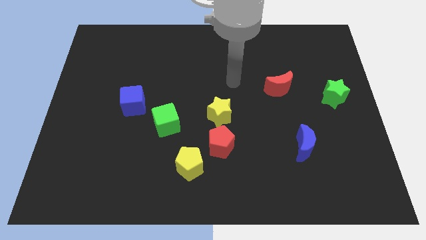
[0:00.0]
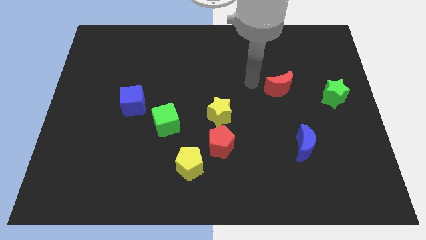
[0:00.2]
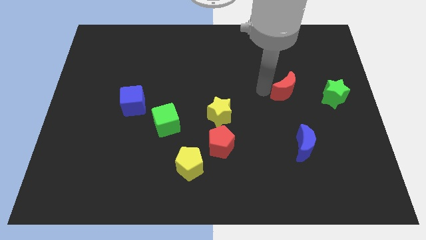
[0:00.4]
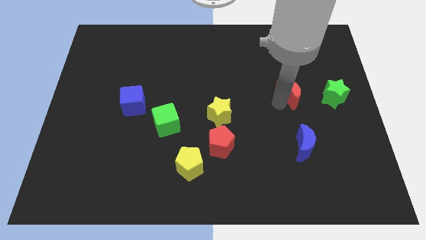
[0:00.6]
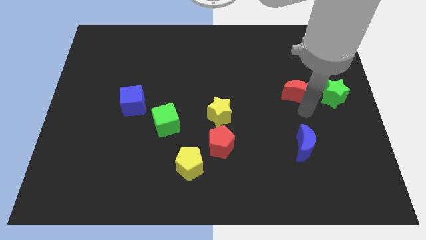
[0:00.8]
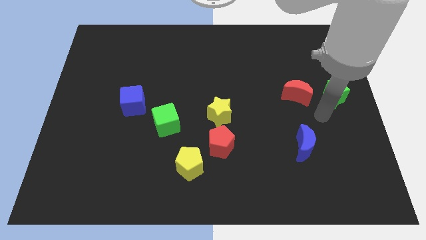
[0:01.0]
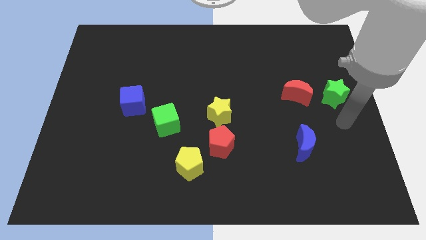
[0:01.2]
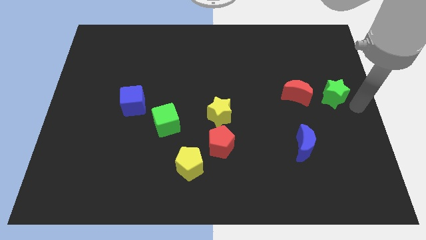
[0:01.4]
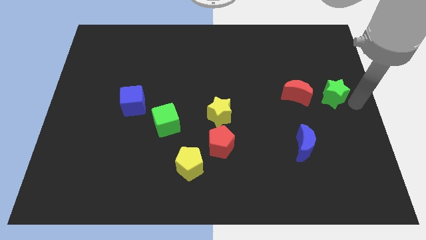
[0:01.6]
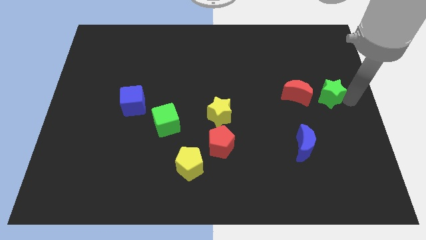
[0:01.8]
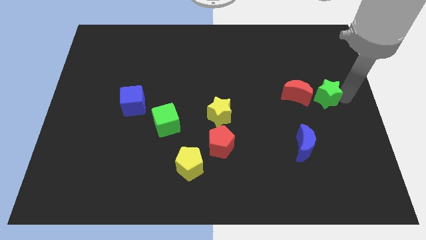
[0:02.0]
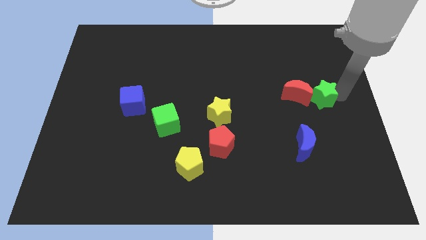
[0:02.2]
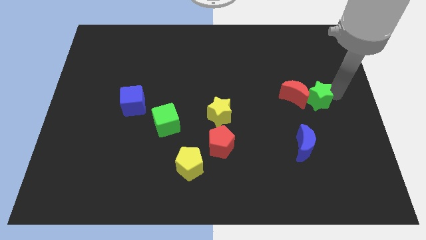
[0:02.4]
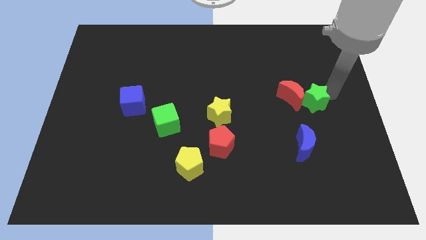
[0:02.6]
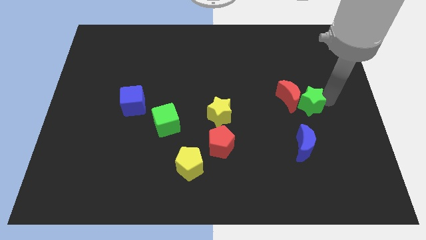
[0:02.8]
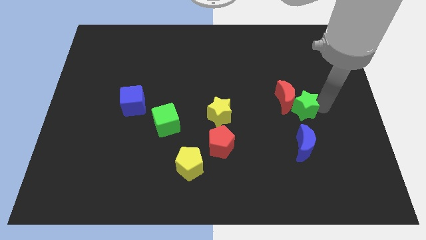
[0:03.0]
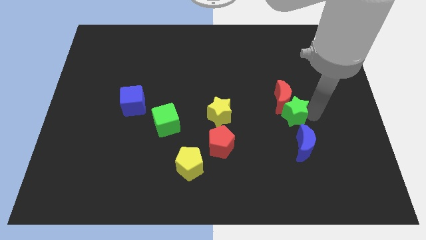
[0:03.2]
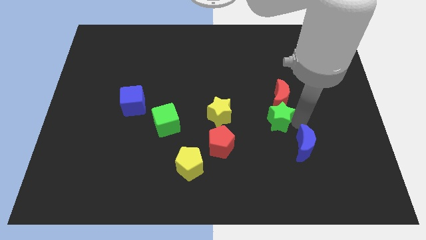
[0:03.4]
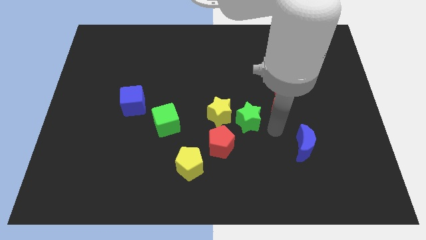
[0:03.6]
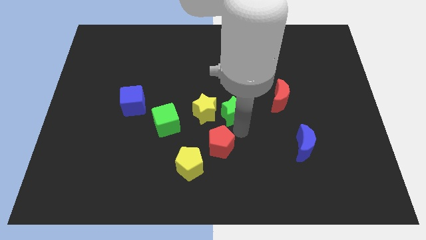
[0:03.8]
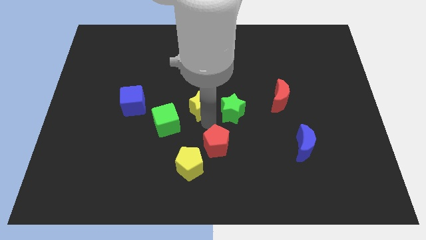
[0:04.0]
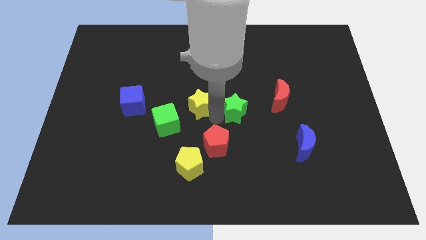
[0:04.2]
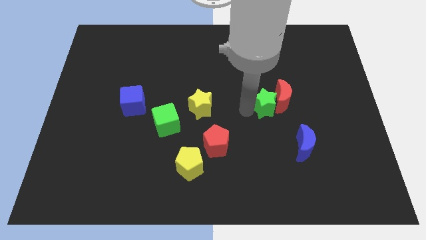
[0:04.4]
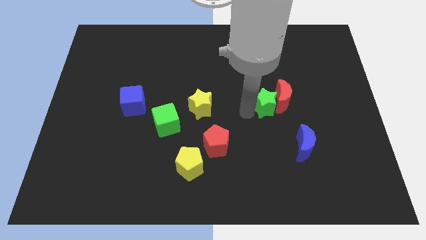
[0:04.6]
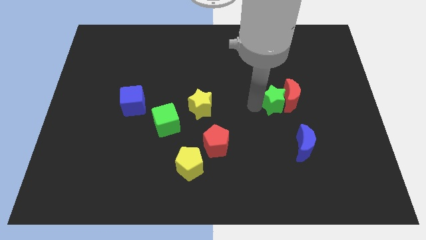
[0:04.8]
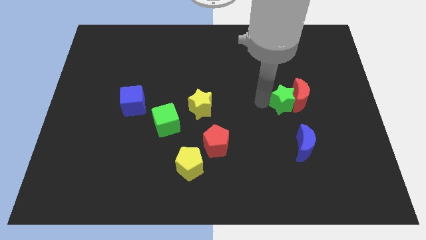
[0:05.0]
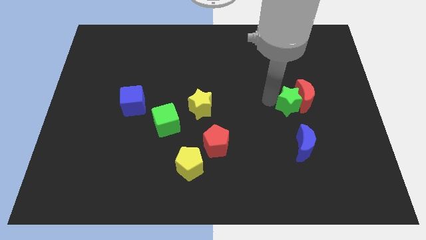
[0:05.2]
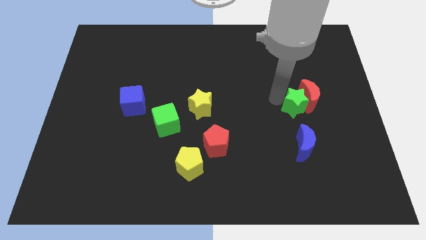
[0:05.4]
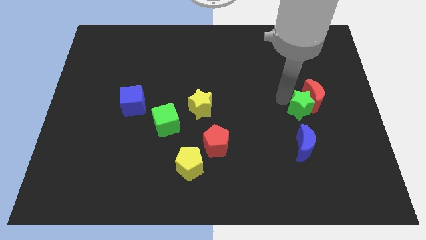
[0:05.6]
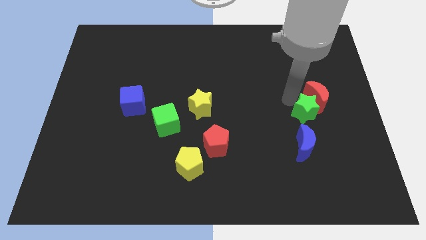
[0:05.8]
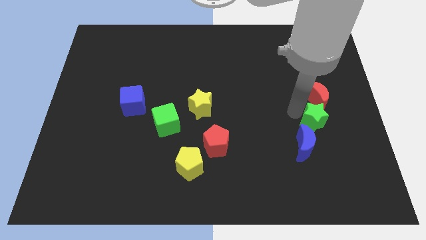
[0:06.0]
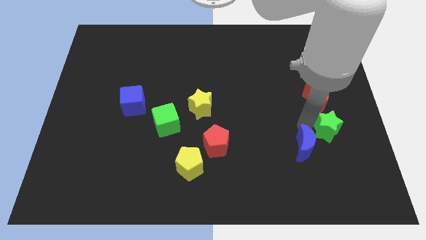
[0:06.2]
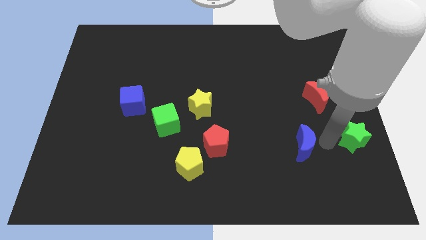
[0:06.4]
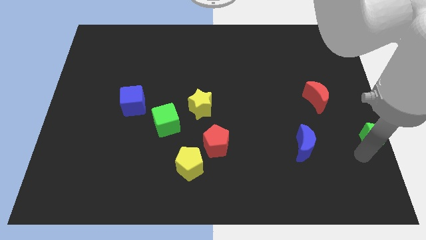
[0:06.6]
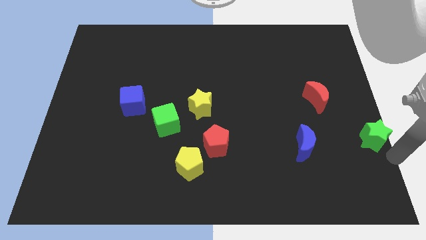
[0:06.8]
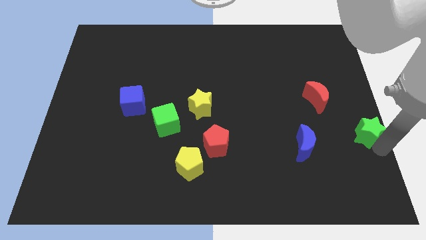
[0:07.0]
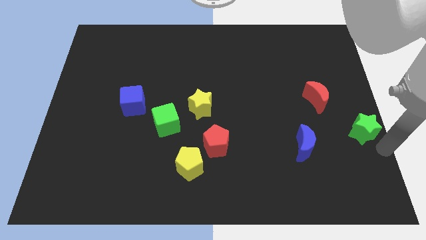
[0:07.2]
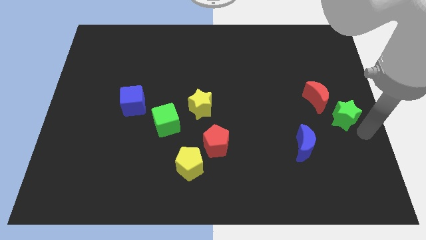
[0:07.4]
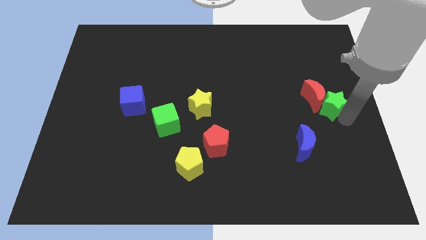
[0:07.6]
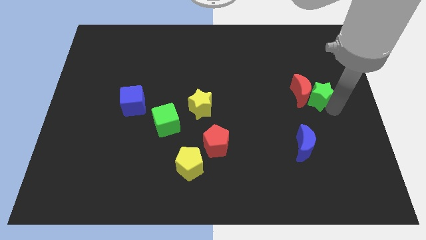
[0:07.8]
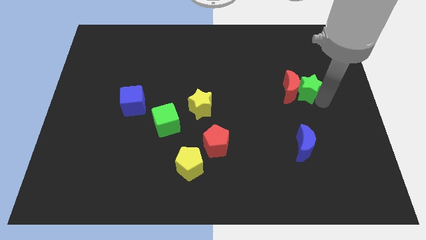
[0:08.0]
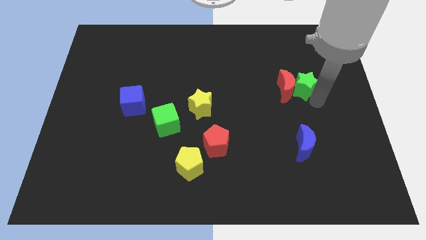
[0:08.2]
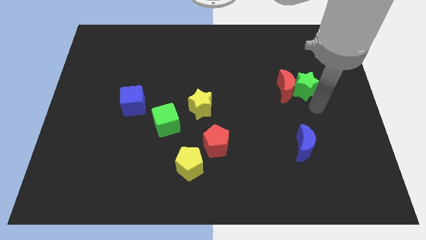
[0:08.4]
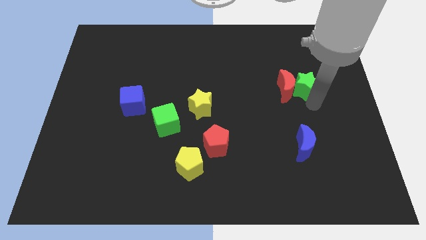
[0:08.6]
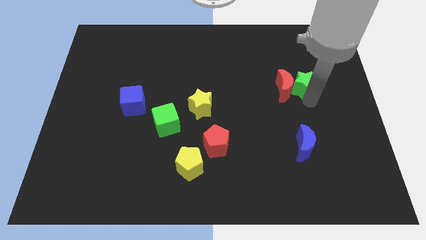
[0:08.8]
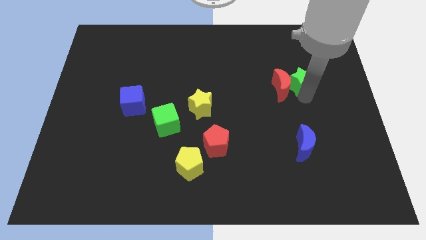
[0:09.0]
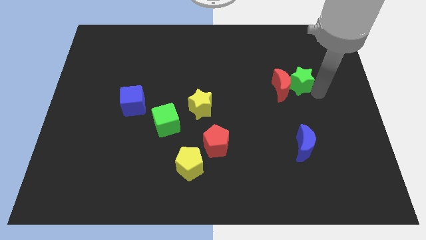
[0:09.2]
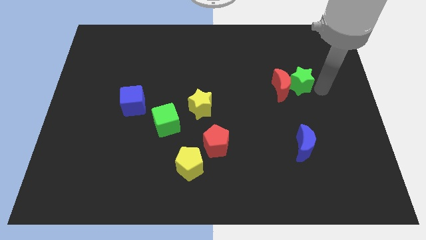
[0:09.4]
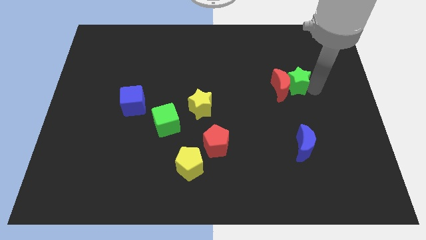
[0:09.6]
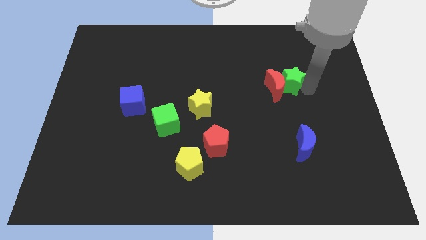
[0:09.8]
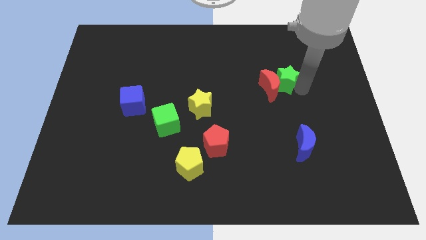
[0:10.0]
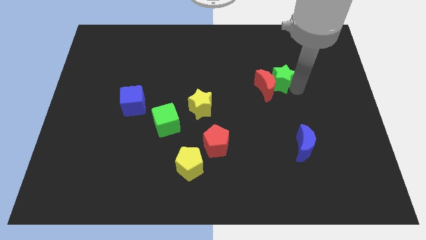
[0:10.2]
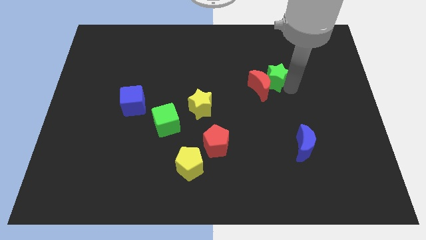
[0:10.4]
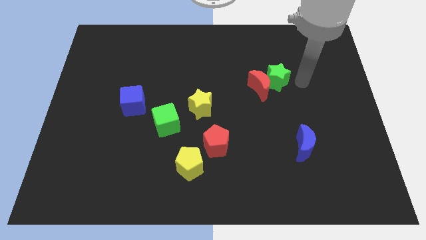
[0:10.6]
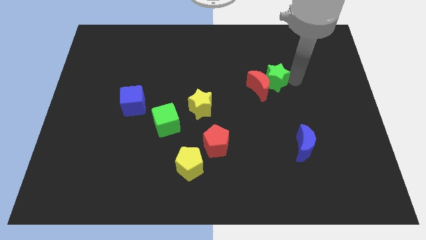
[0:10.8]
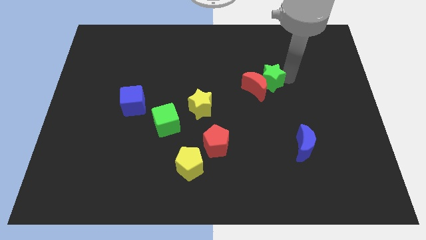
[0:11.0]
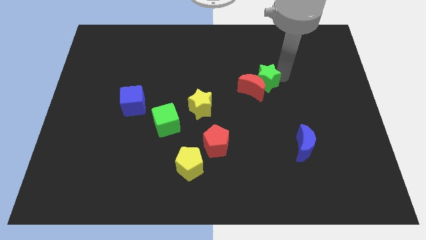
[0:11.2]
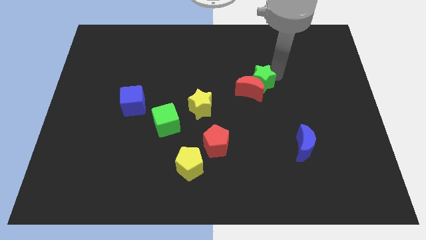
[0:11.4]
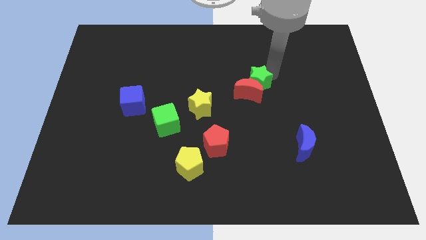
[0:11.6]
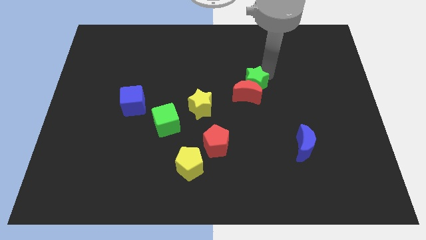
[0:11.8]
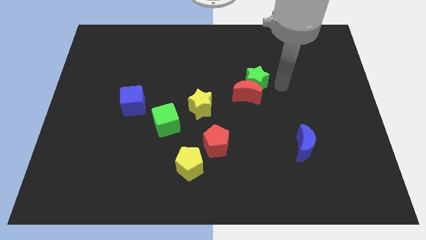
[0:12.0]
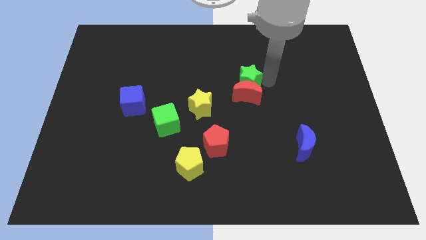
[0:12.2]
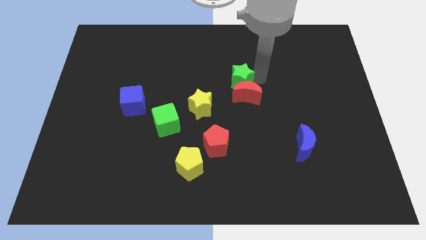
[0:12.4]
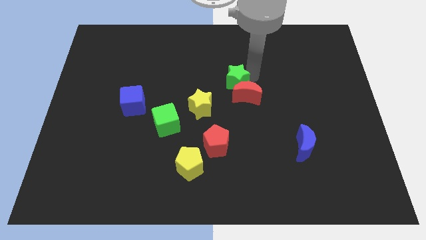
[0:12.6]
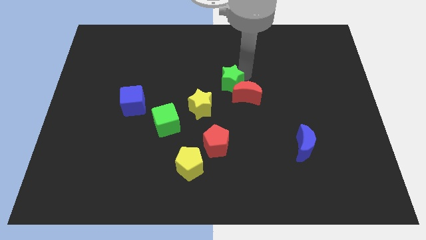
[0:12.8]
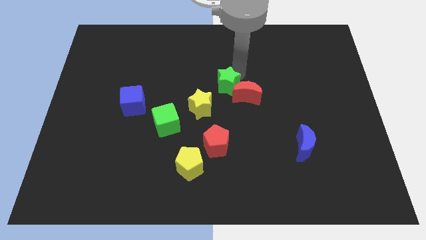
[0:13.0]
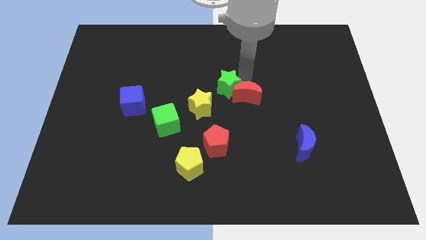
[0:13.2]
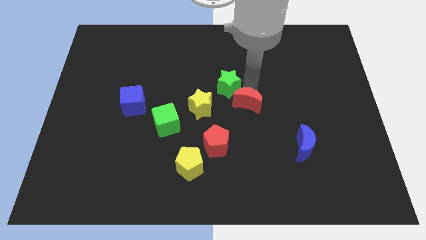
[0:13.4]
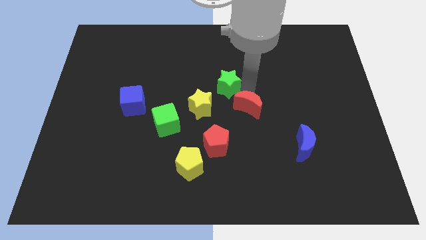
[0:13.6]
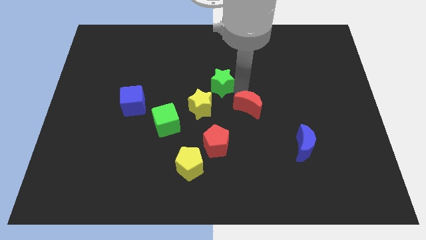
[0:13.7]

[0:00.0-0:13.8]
put the green star above the yellow star

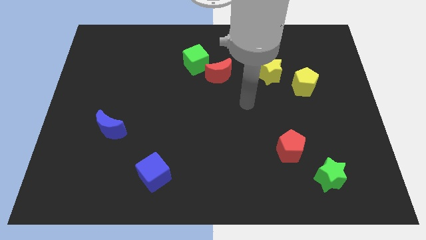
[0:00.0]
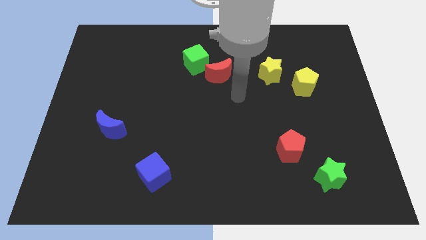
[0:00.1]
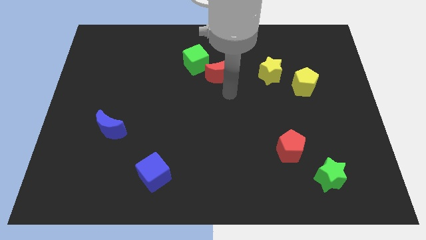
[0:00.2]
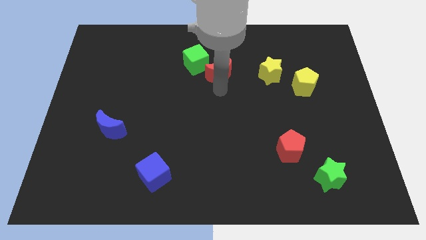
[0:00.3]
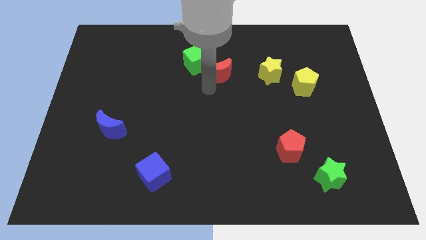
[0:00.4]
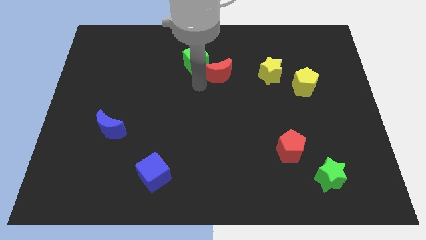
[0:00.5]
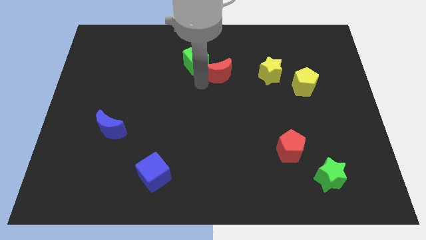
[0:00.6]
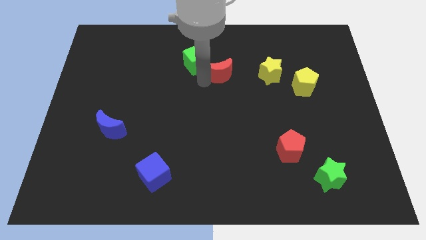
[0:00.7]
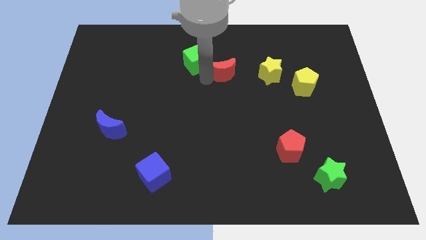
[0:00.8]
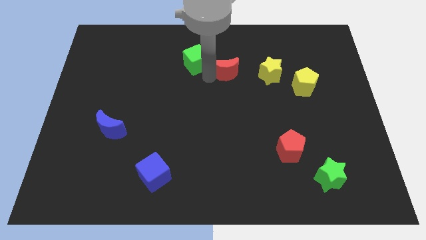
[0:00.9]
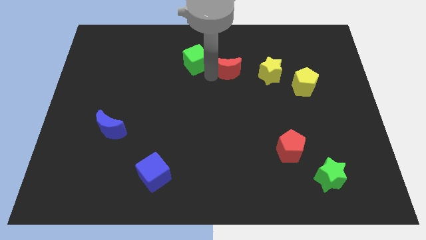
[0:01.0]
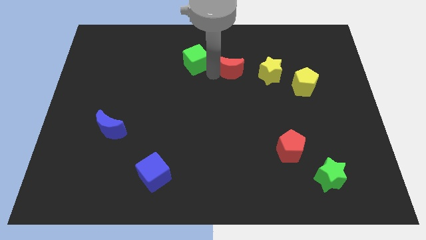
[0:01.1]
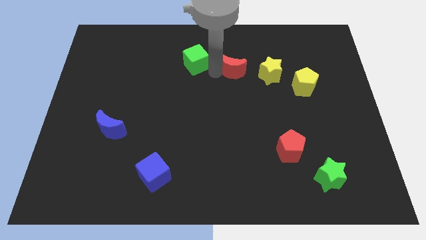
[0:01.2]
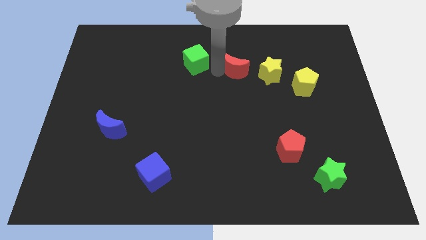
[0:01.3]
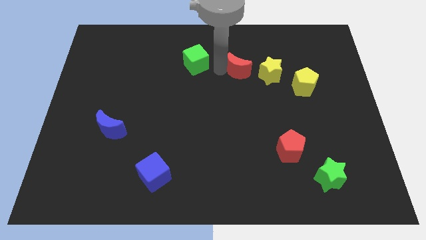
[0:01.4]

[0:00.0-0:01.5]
put the red moon to the top left of the yellow star
